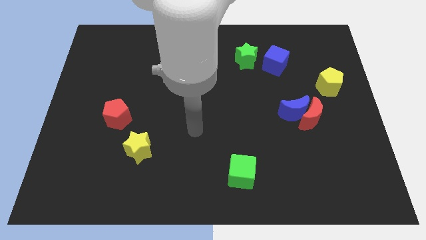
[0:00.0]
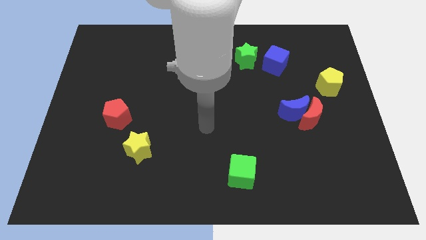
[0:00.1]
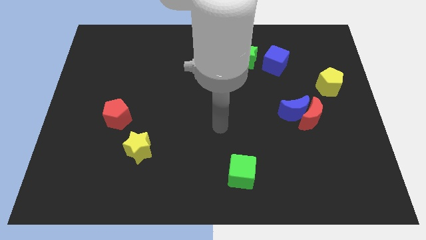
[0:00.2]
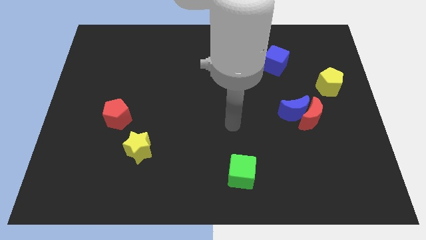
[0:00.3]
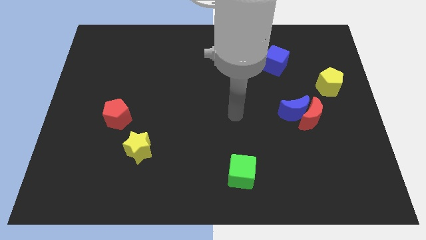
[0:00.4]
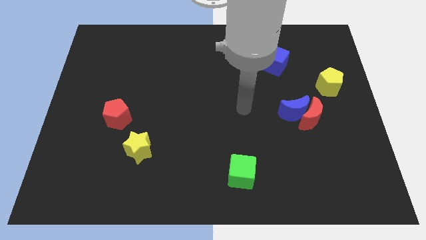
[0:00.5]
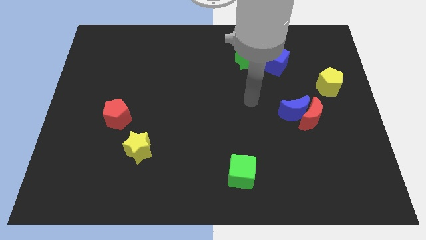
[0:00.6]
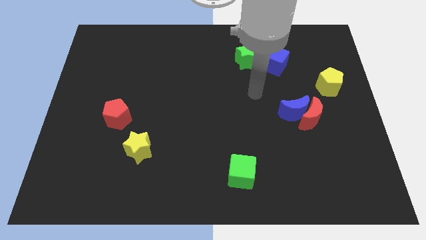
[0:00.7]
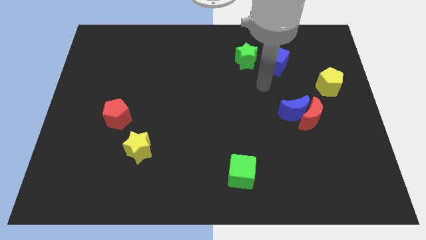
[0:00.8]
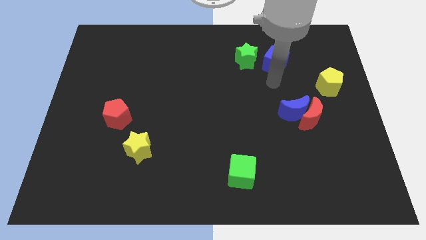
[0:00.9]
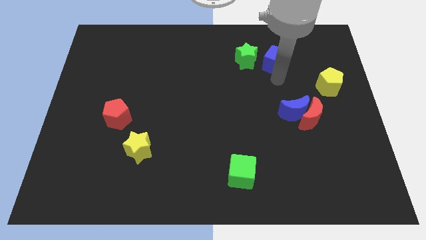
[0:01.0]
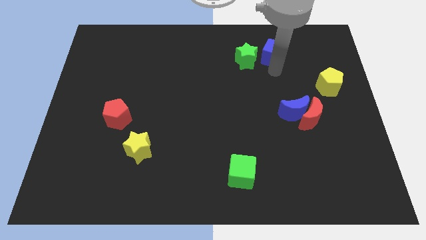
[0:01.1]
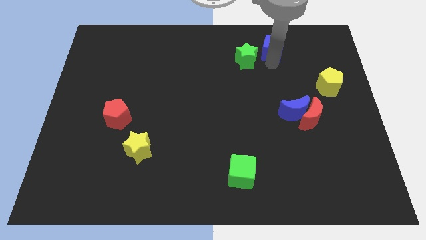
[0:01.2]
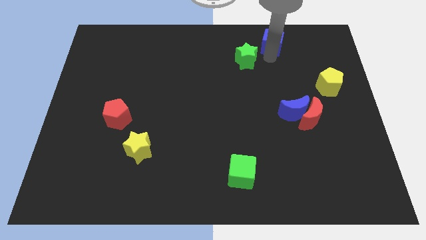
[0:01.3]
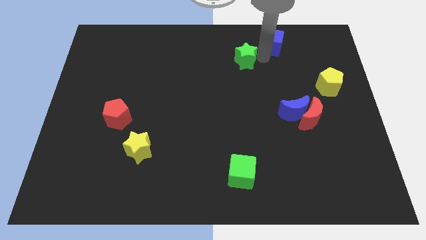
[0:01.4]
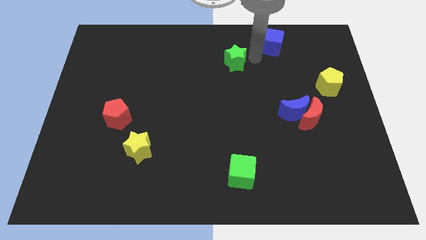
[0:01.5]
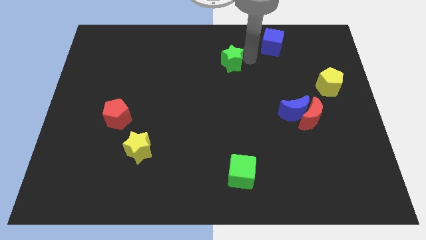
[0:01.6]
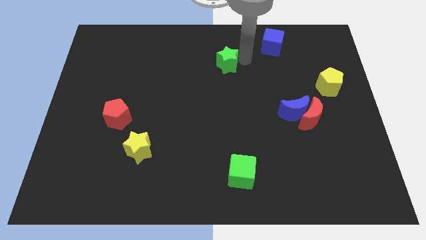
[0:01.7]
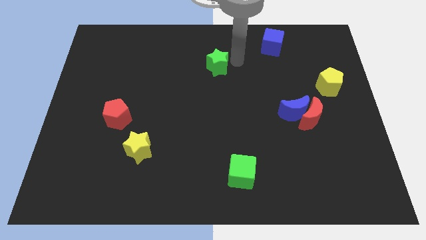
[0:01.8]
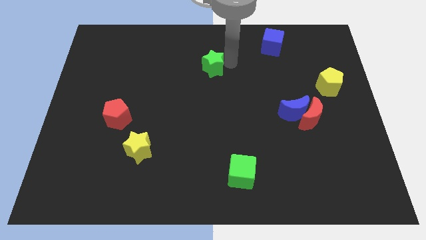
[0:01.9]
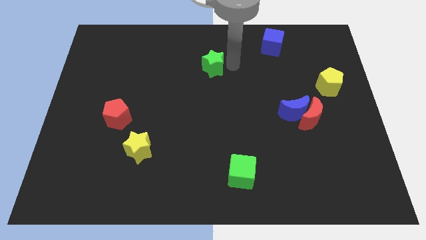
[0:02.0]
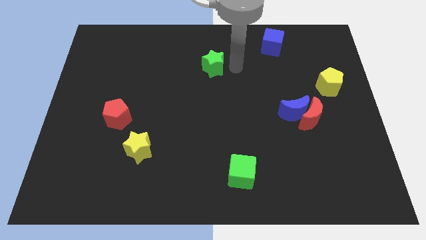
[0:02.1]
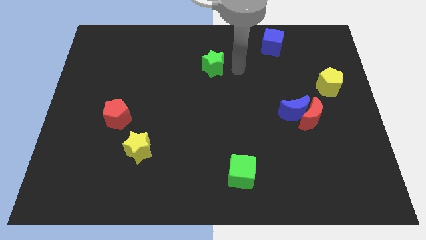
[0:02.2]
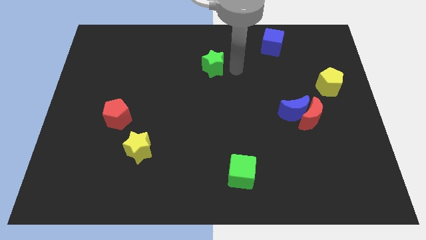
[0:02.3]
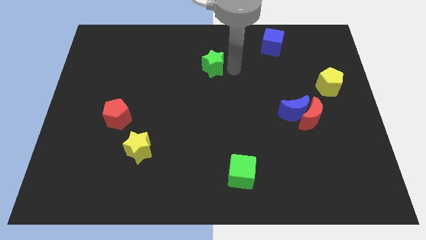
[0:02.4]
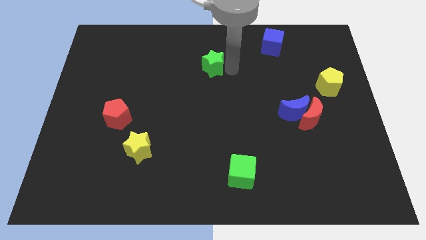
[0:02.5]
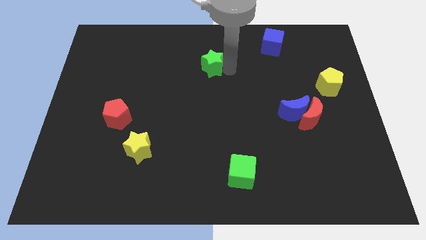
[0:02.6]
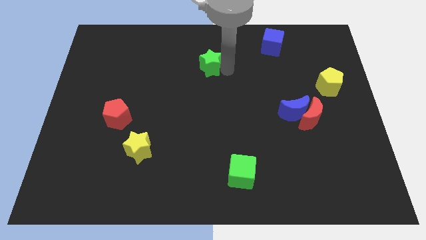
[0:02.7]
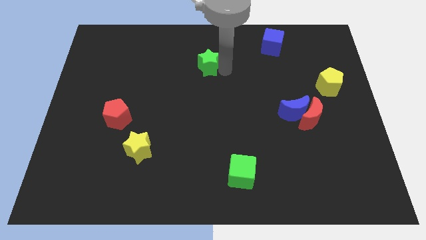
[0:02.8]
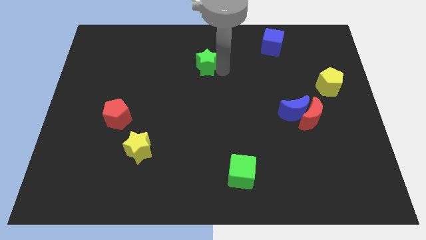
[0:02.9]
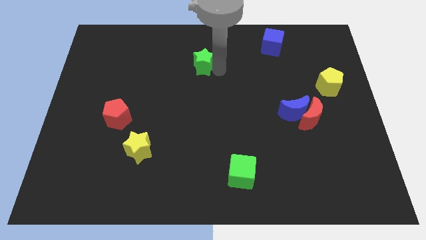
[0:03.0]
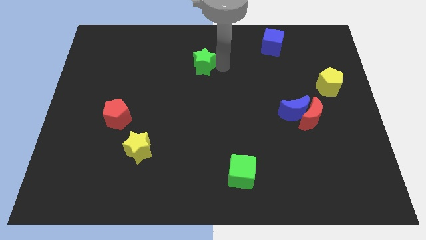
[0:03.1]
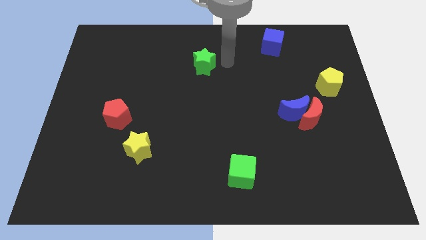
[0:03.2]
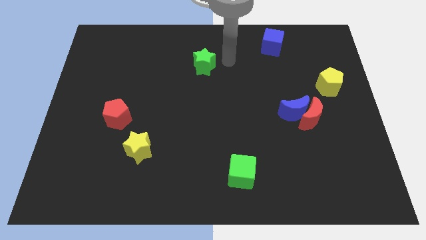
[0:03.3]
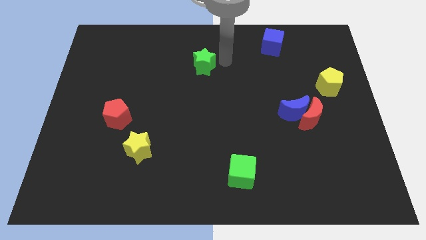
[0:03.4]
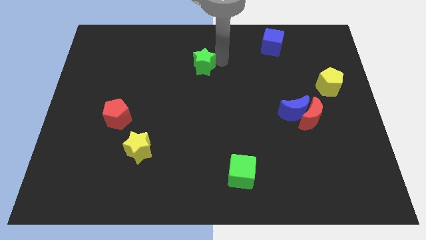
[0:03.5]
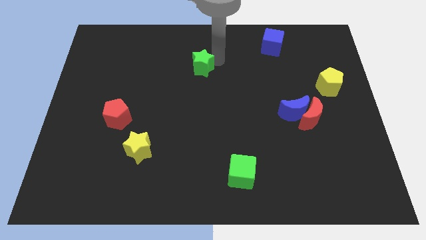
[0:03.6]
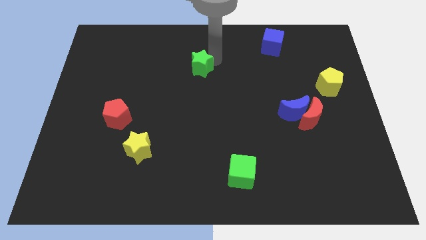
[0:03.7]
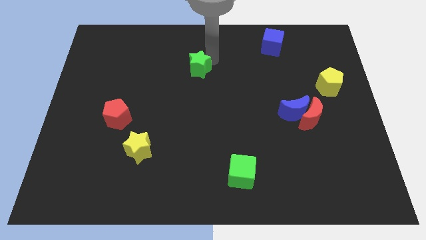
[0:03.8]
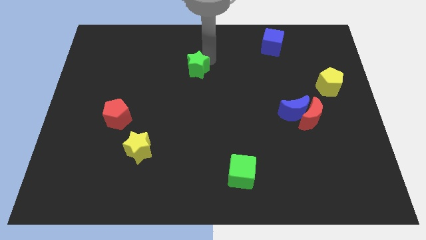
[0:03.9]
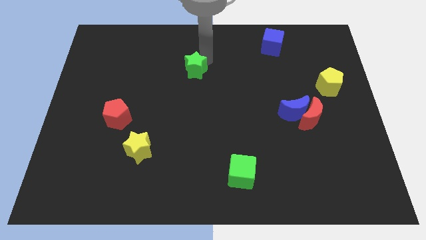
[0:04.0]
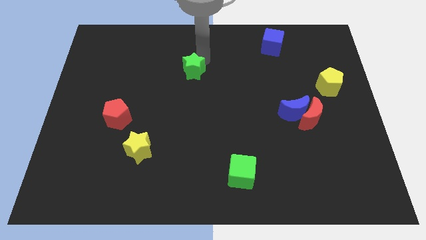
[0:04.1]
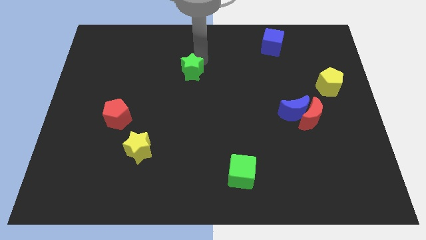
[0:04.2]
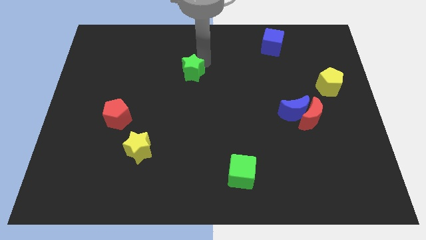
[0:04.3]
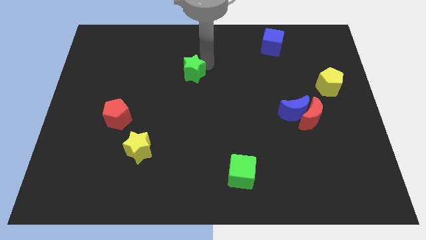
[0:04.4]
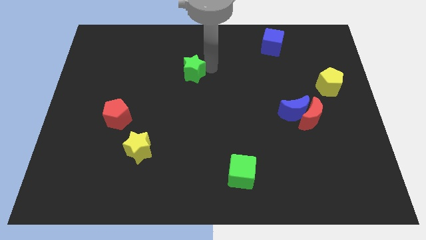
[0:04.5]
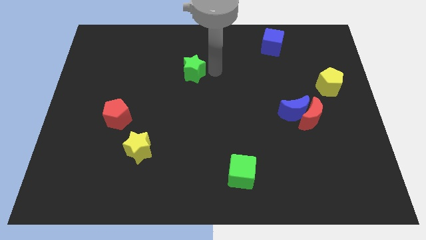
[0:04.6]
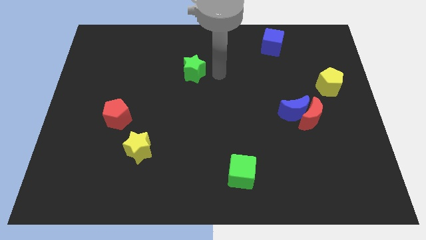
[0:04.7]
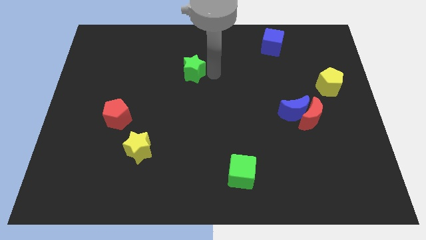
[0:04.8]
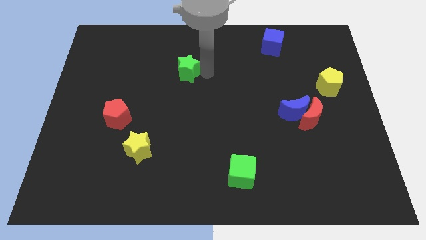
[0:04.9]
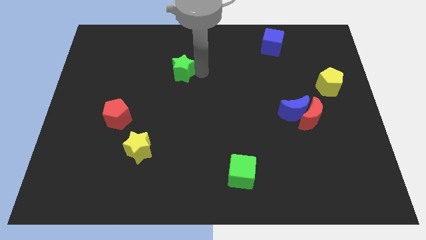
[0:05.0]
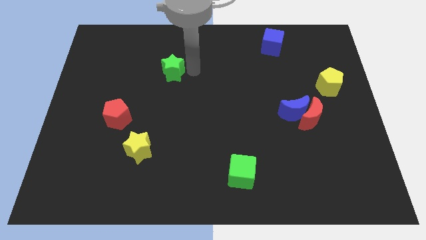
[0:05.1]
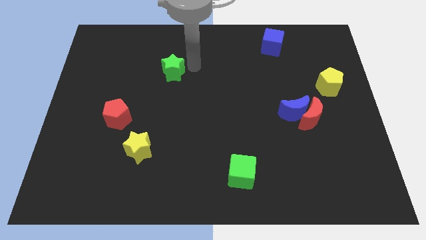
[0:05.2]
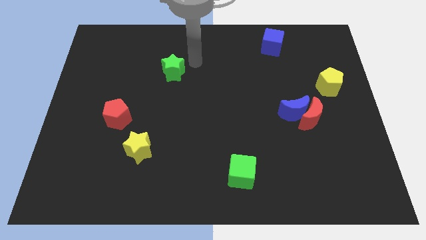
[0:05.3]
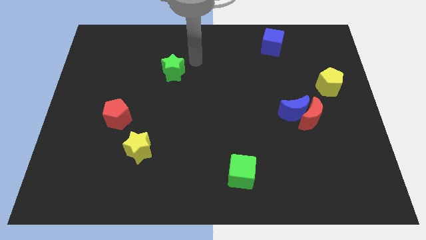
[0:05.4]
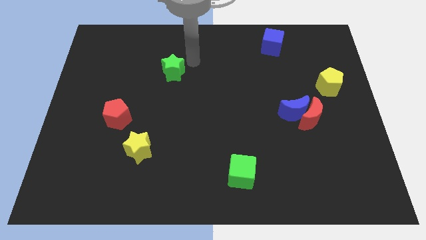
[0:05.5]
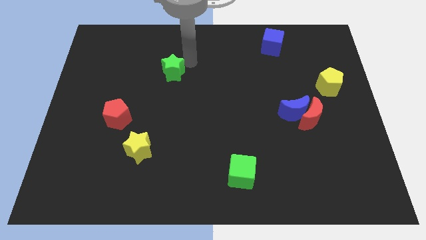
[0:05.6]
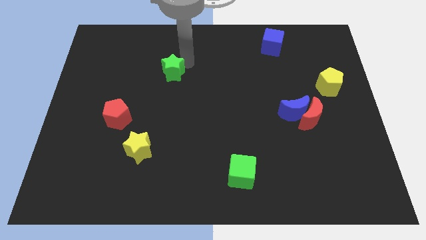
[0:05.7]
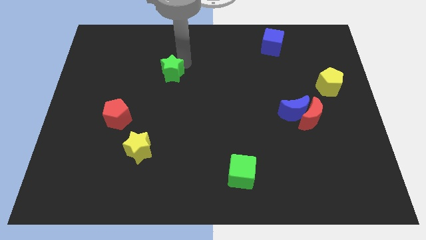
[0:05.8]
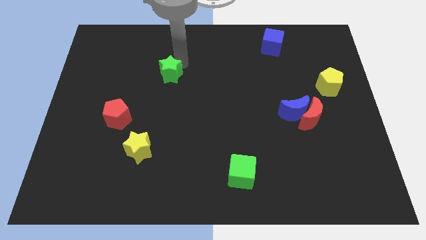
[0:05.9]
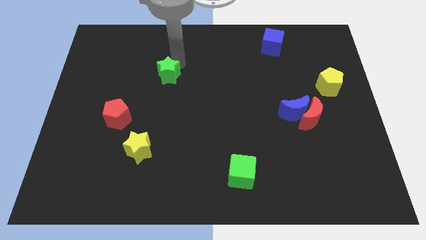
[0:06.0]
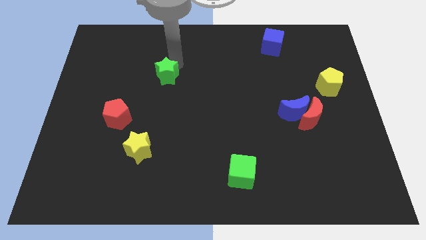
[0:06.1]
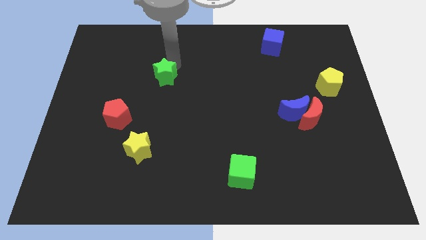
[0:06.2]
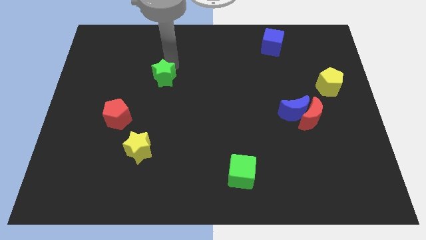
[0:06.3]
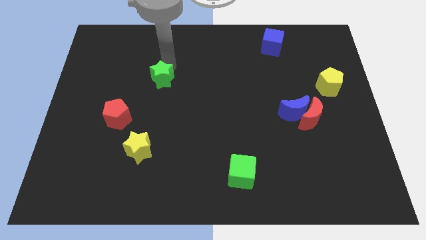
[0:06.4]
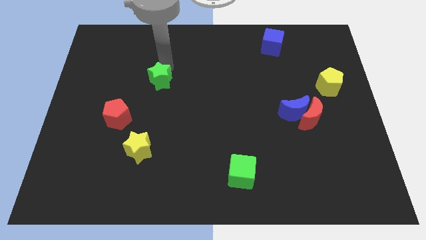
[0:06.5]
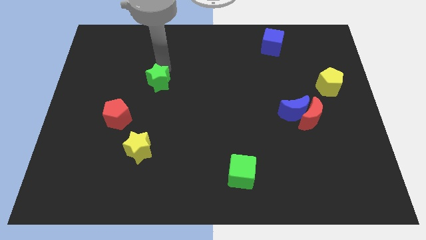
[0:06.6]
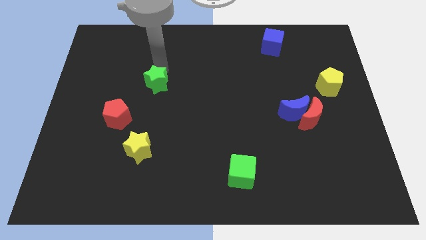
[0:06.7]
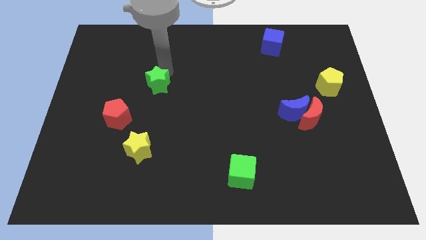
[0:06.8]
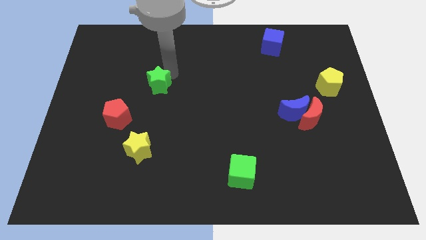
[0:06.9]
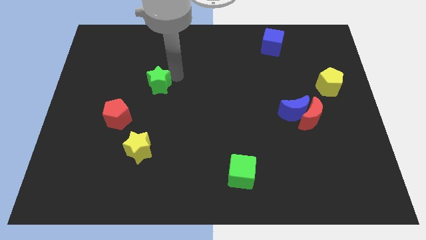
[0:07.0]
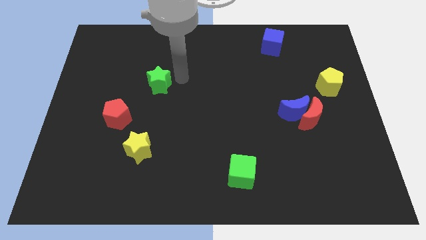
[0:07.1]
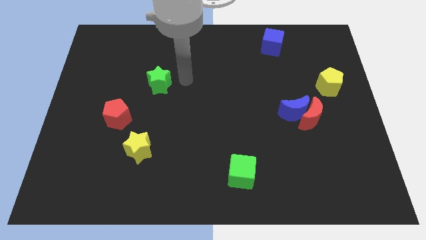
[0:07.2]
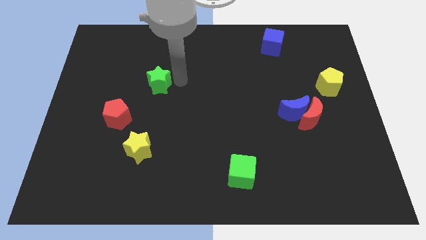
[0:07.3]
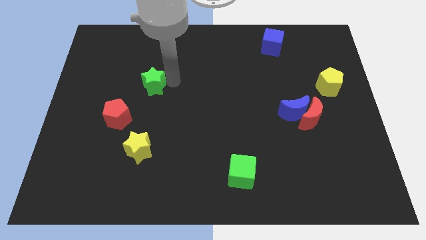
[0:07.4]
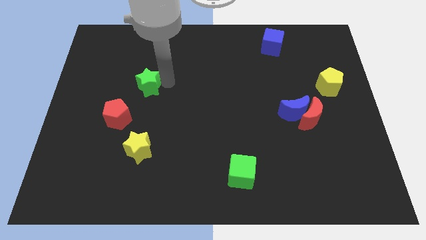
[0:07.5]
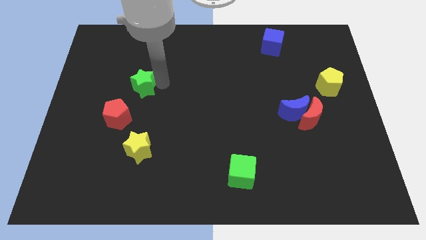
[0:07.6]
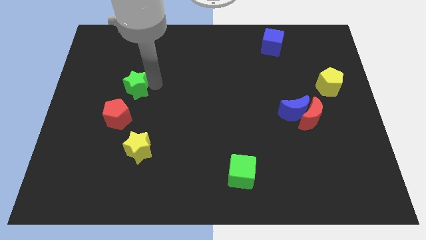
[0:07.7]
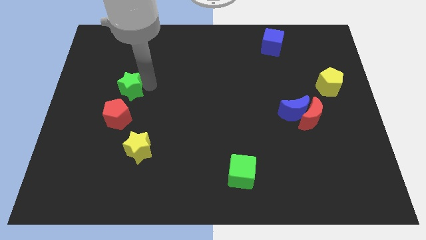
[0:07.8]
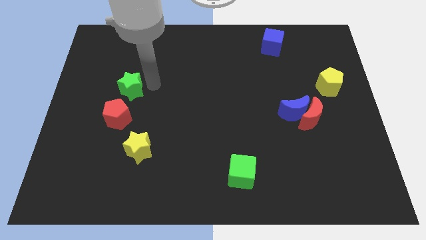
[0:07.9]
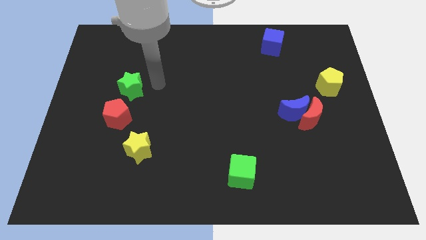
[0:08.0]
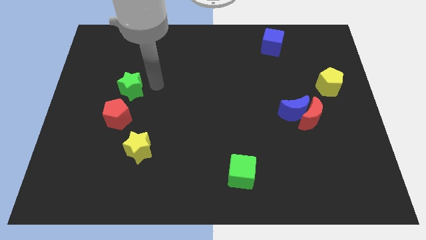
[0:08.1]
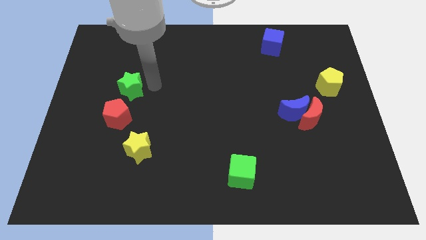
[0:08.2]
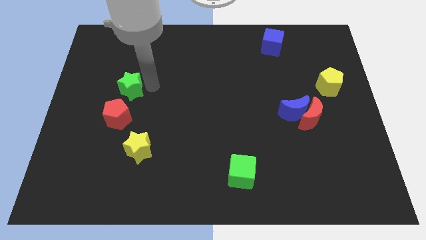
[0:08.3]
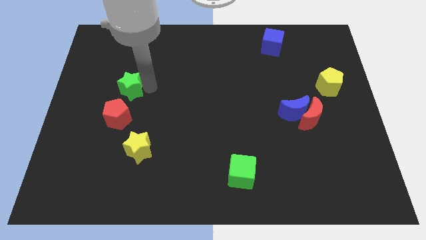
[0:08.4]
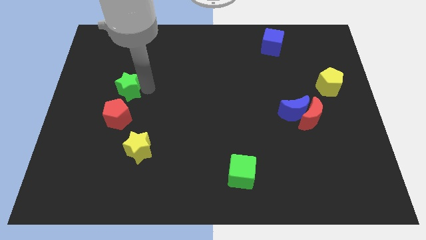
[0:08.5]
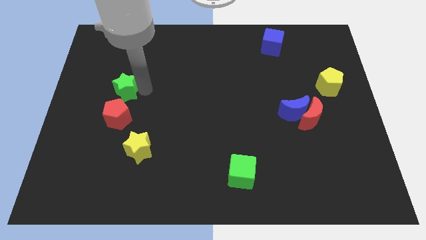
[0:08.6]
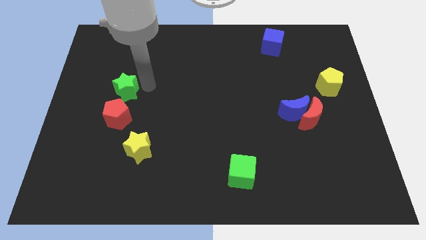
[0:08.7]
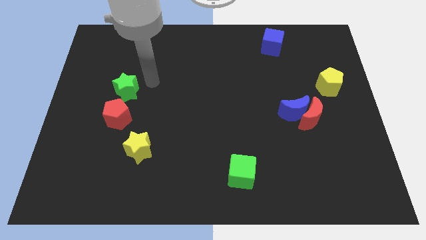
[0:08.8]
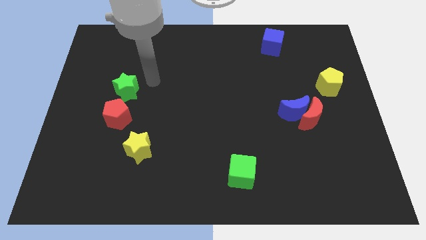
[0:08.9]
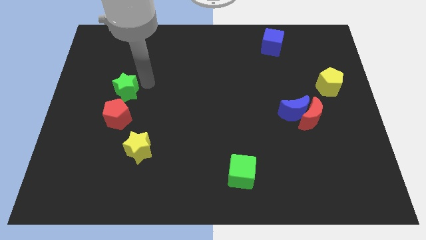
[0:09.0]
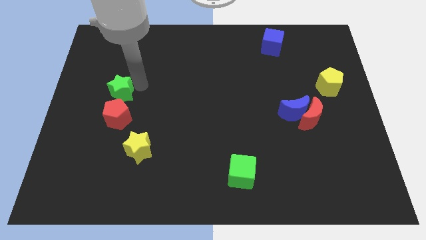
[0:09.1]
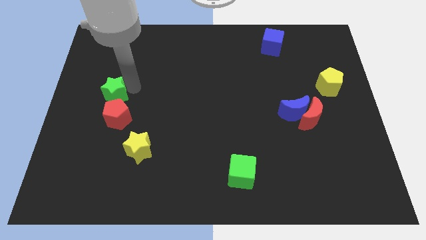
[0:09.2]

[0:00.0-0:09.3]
push the green star to the top left of the red pentagon
